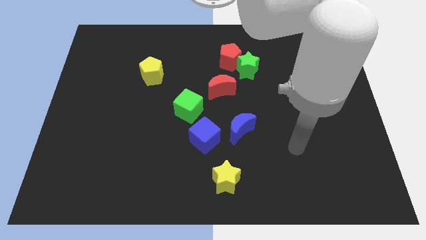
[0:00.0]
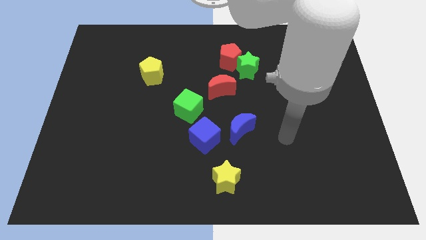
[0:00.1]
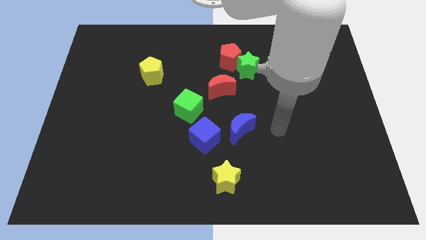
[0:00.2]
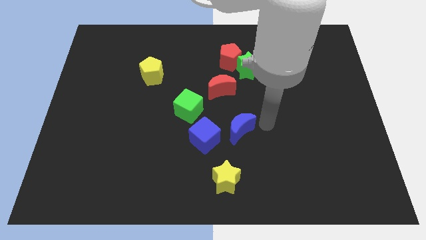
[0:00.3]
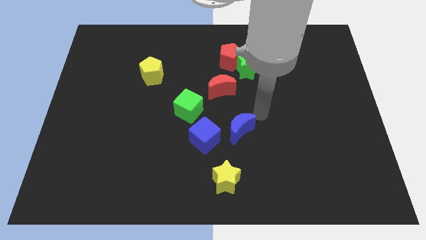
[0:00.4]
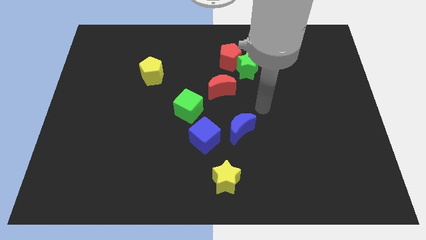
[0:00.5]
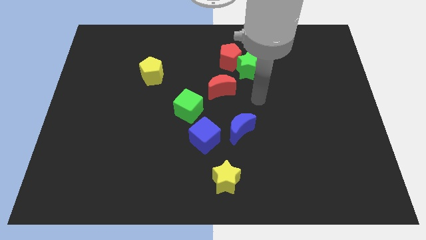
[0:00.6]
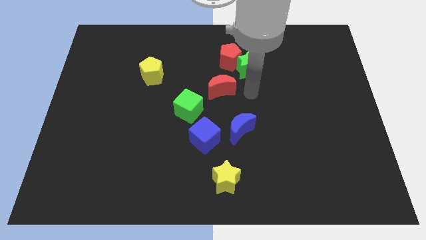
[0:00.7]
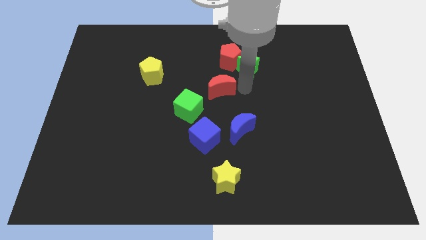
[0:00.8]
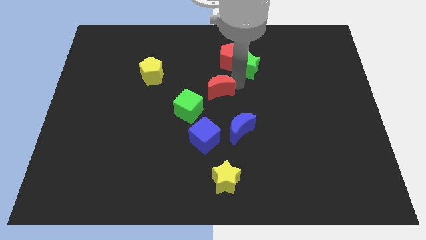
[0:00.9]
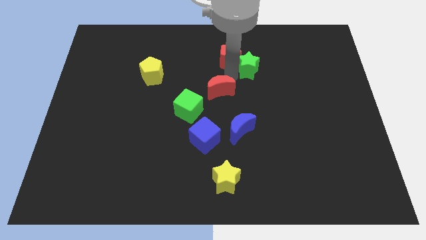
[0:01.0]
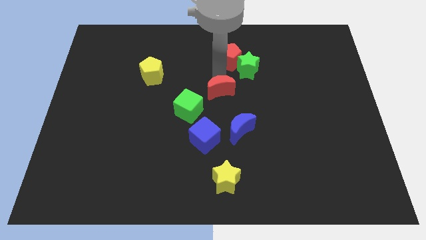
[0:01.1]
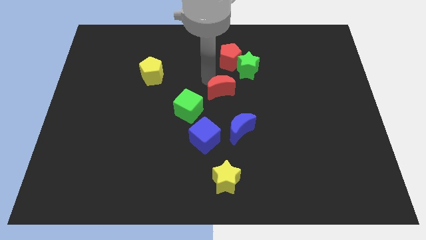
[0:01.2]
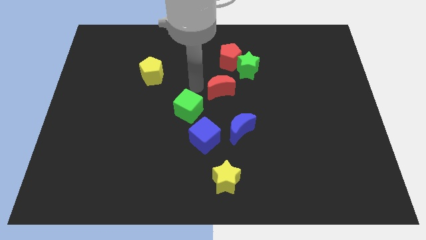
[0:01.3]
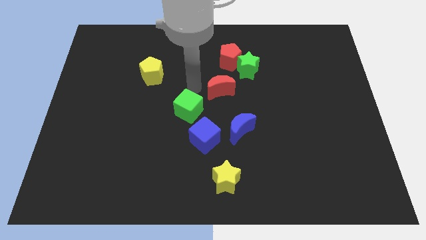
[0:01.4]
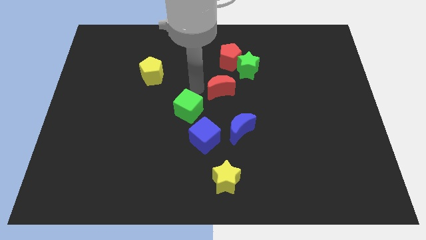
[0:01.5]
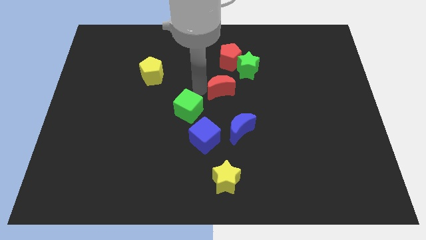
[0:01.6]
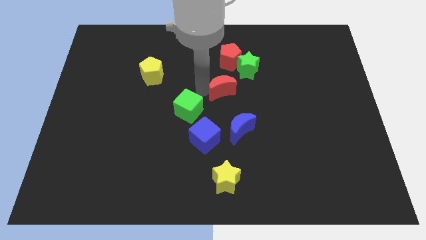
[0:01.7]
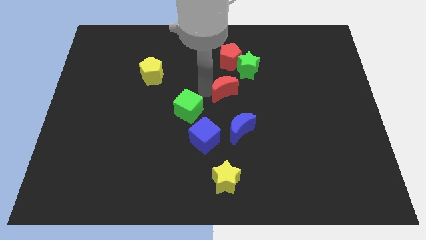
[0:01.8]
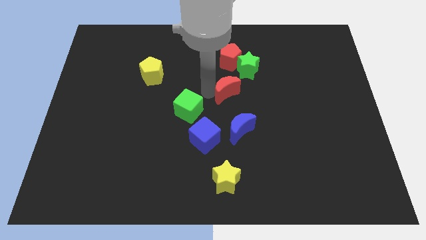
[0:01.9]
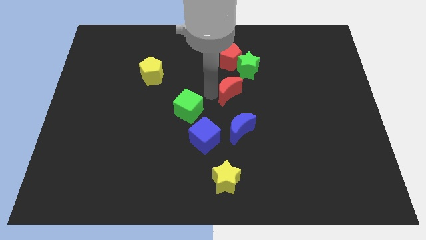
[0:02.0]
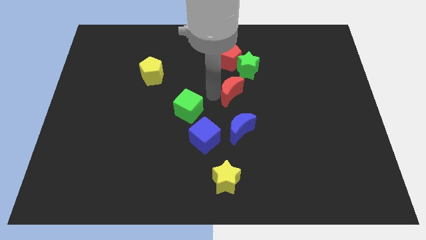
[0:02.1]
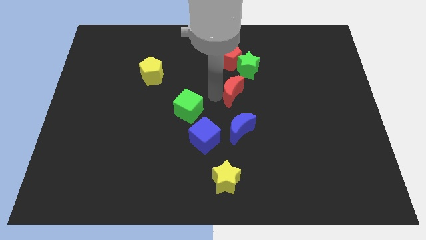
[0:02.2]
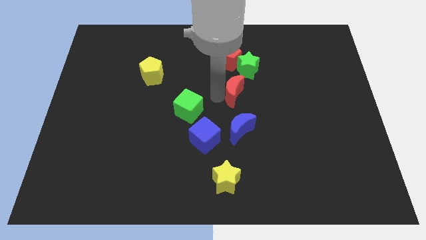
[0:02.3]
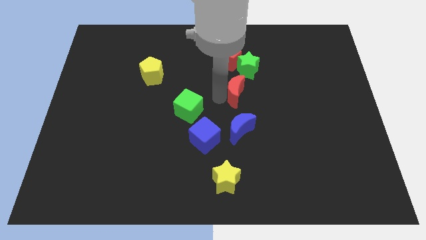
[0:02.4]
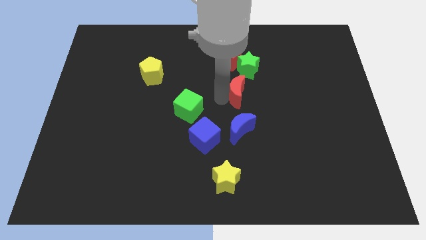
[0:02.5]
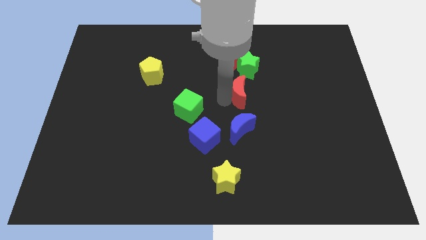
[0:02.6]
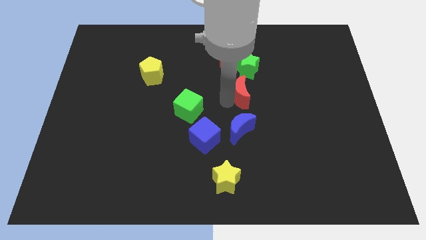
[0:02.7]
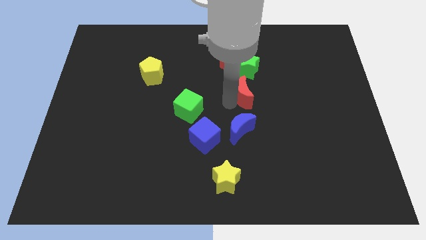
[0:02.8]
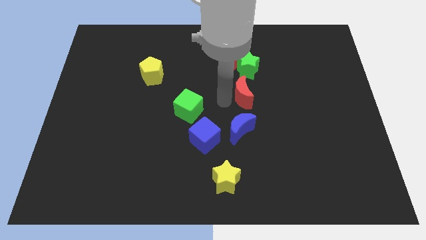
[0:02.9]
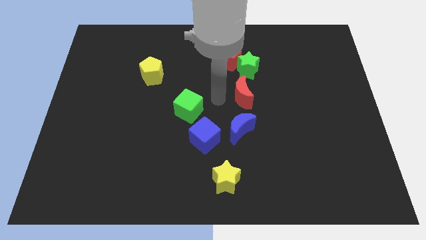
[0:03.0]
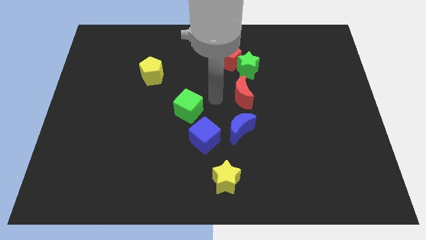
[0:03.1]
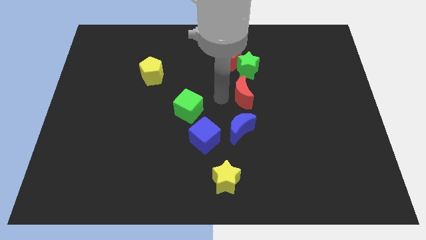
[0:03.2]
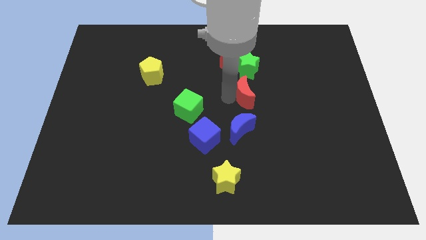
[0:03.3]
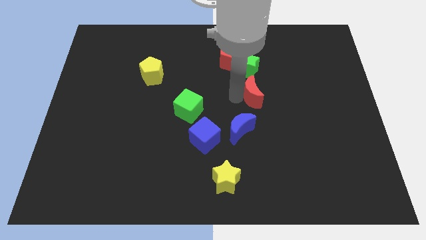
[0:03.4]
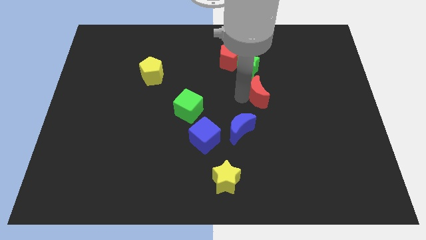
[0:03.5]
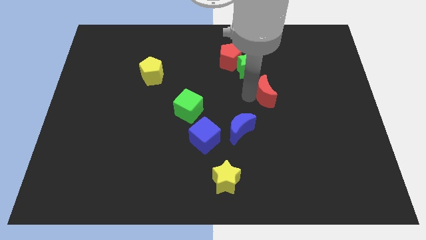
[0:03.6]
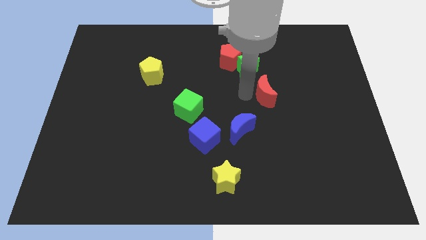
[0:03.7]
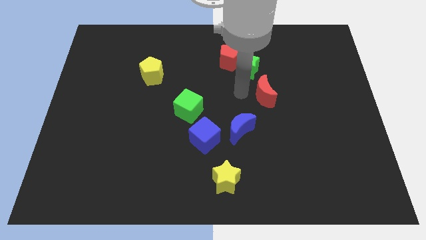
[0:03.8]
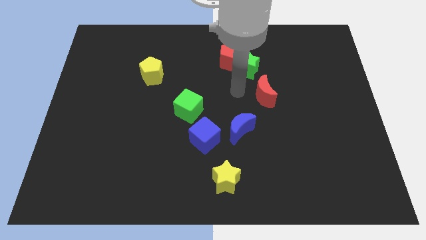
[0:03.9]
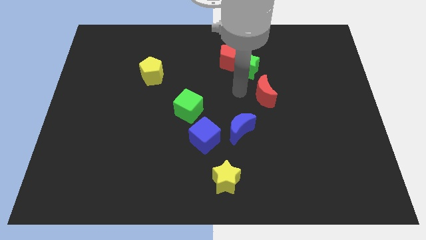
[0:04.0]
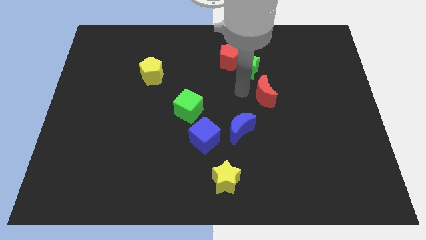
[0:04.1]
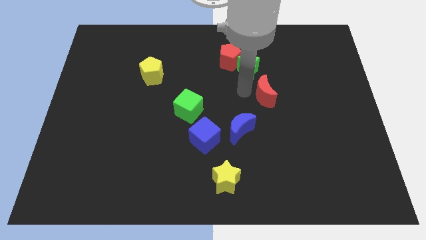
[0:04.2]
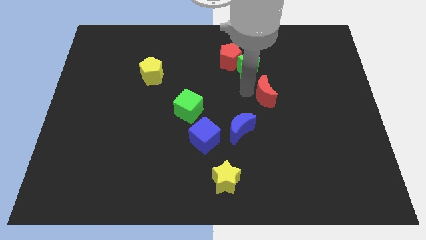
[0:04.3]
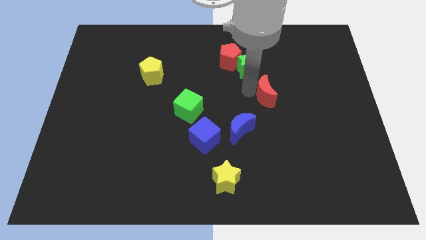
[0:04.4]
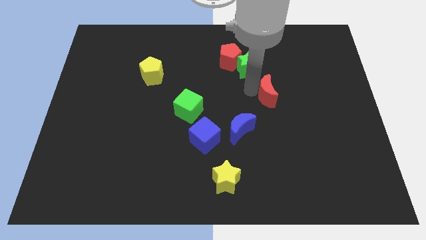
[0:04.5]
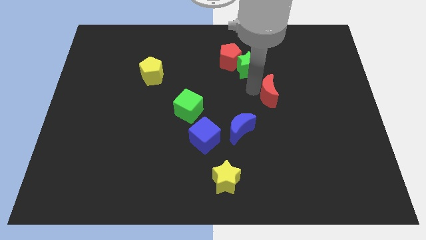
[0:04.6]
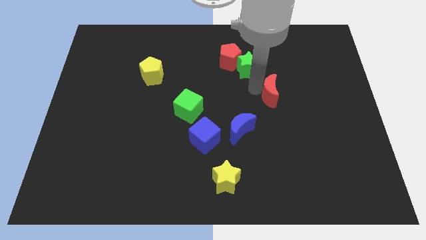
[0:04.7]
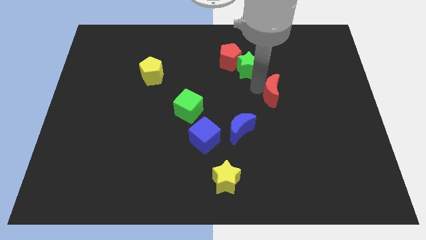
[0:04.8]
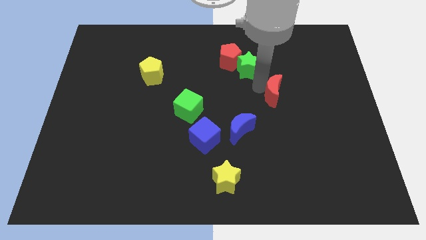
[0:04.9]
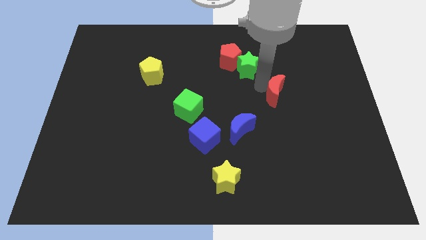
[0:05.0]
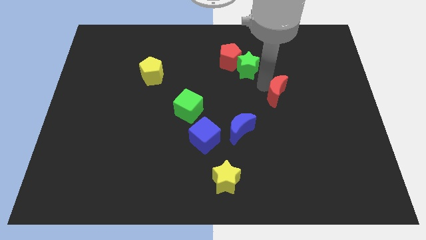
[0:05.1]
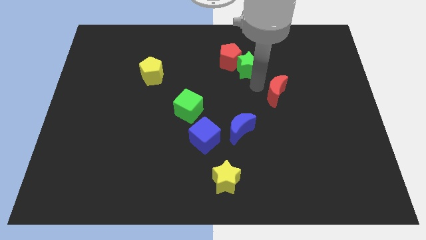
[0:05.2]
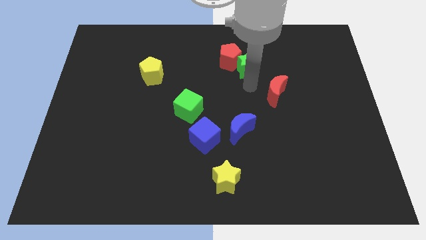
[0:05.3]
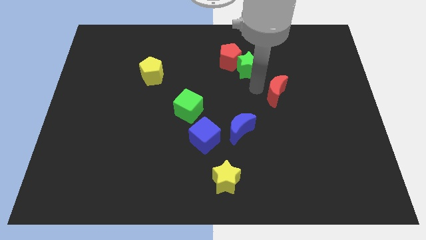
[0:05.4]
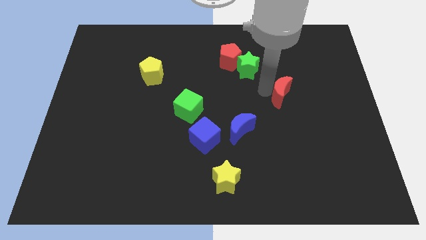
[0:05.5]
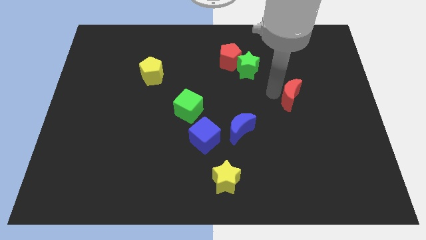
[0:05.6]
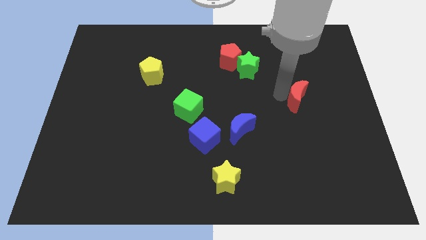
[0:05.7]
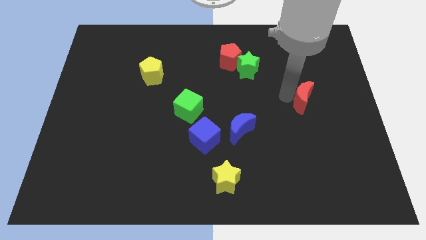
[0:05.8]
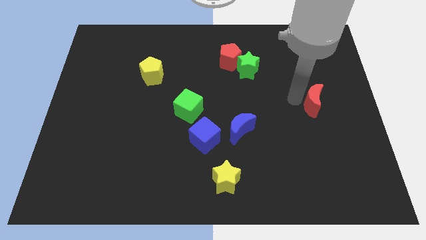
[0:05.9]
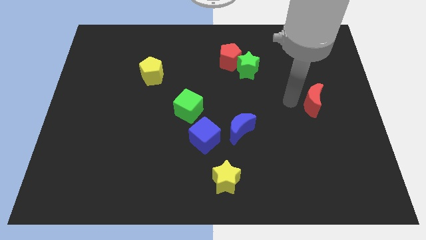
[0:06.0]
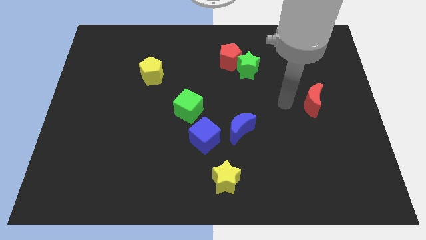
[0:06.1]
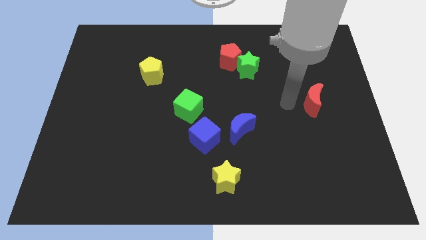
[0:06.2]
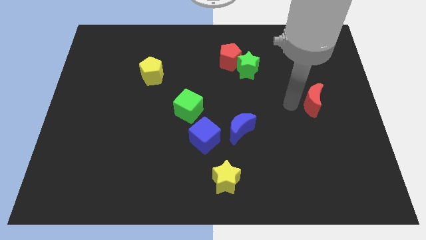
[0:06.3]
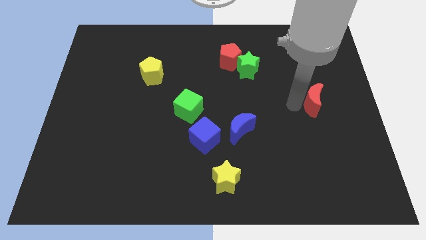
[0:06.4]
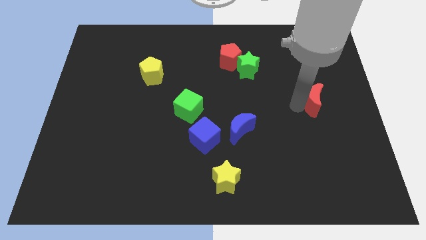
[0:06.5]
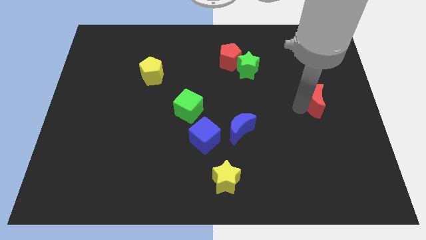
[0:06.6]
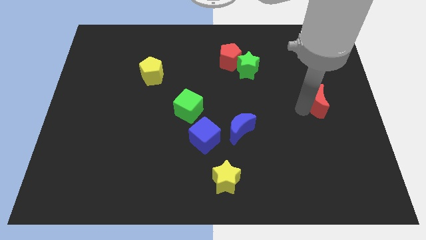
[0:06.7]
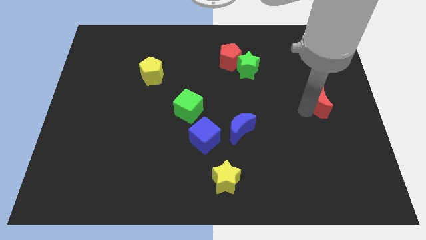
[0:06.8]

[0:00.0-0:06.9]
slide the red moon to the right side
